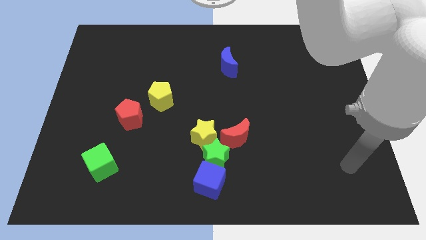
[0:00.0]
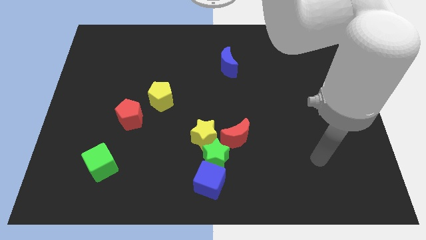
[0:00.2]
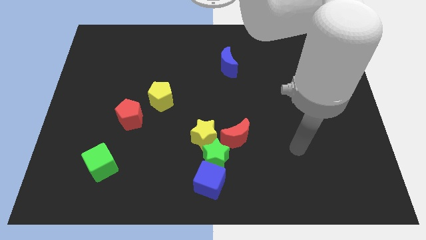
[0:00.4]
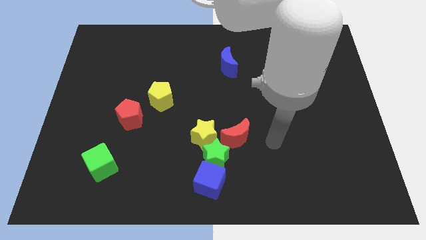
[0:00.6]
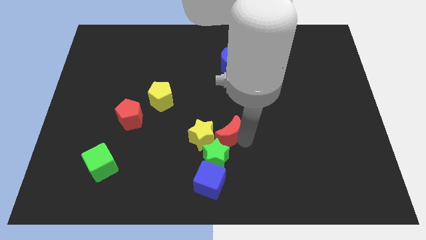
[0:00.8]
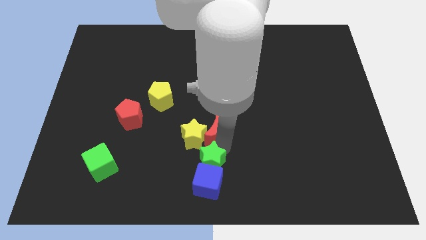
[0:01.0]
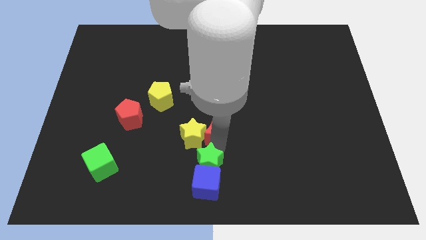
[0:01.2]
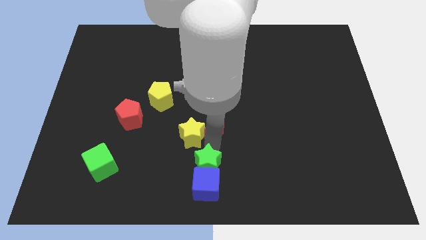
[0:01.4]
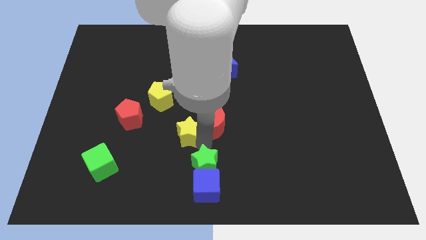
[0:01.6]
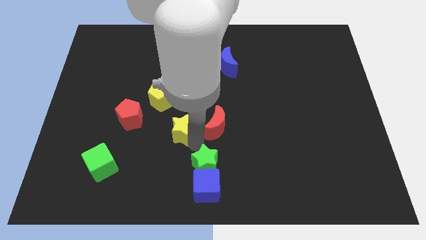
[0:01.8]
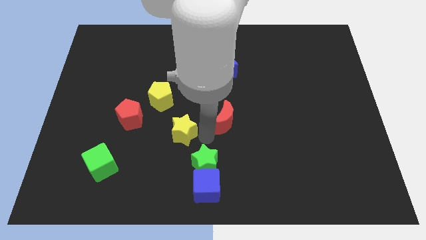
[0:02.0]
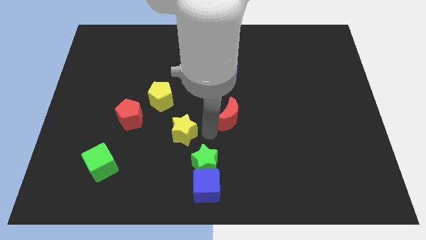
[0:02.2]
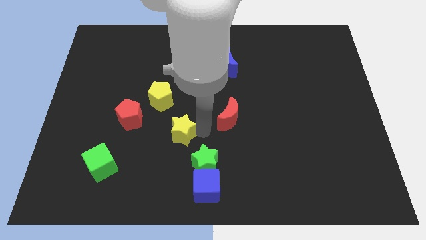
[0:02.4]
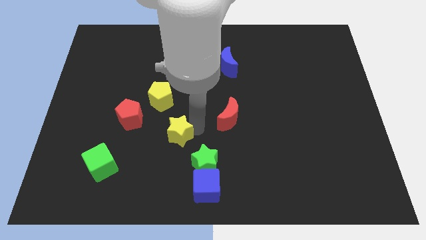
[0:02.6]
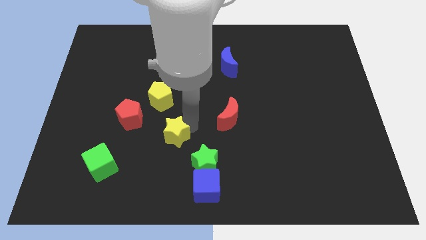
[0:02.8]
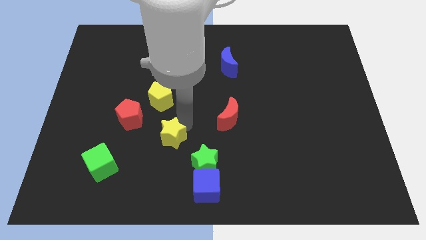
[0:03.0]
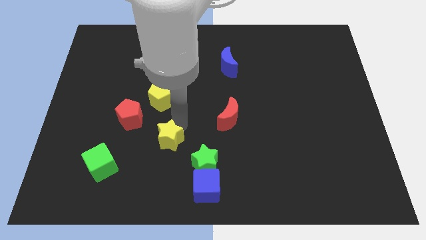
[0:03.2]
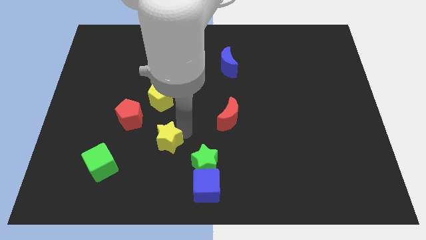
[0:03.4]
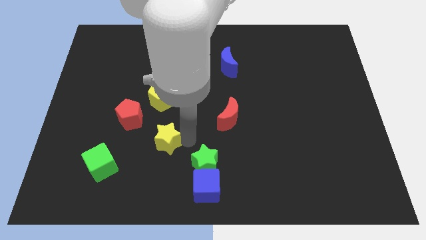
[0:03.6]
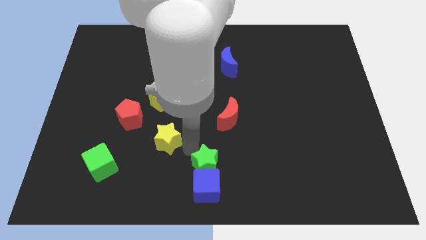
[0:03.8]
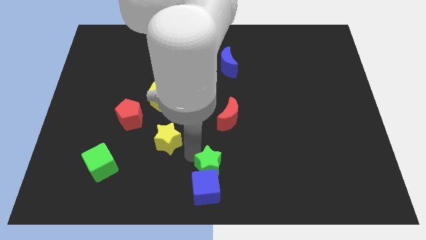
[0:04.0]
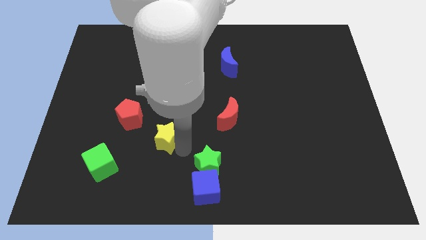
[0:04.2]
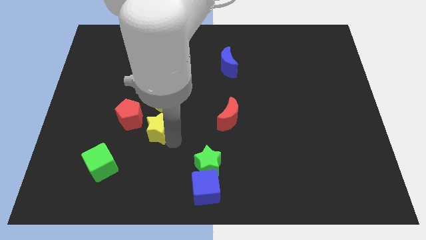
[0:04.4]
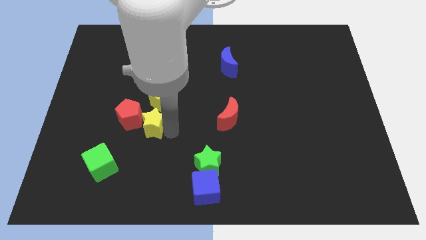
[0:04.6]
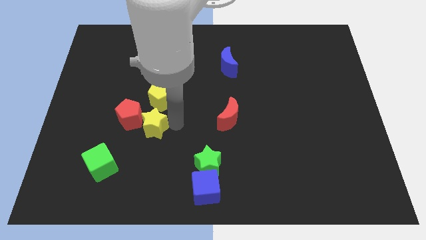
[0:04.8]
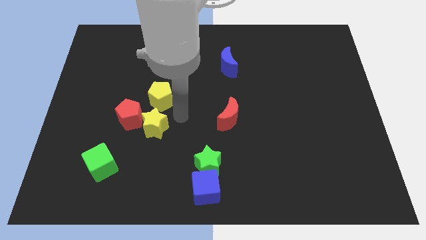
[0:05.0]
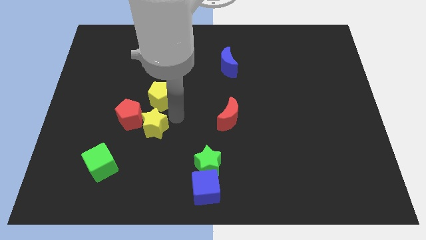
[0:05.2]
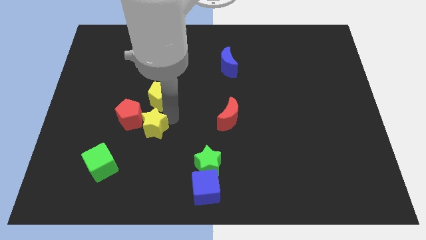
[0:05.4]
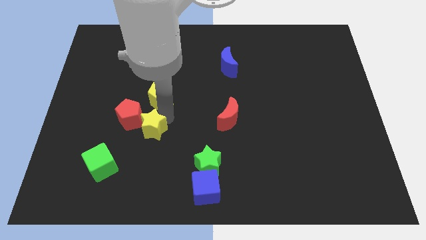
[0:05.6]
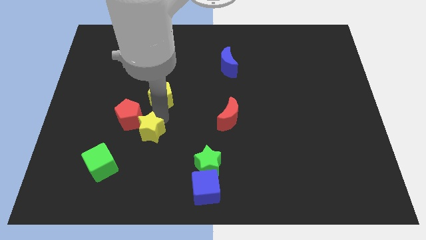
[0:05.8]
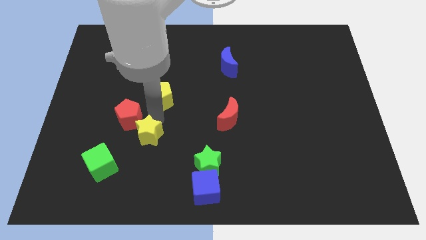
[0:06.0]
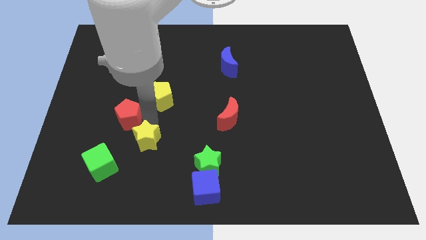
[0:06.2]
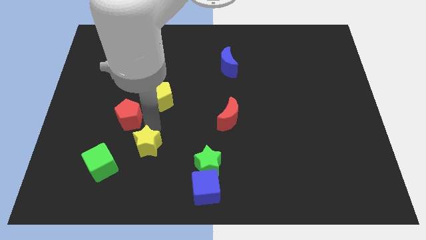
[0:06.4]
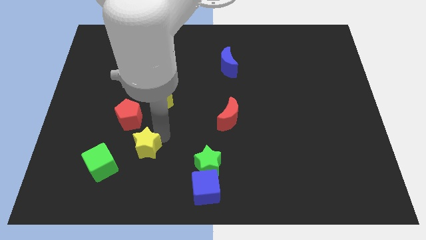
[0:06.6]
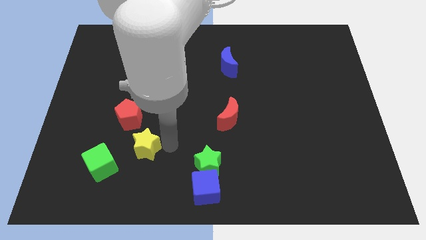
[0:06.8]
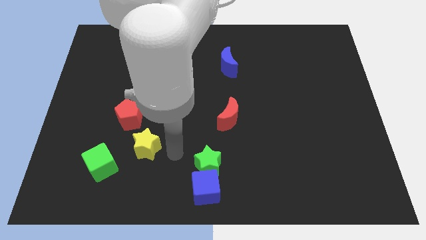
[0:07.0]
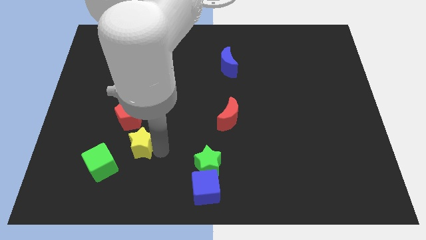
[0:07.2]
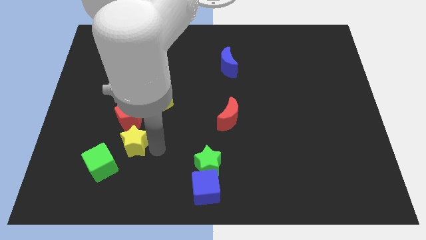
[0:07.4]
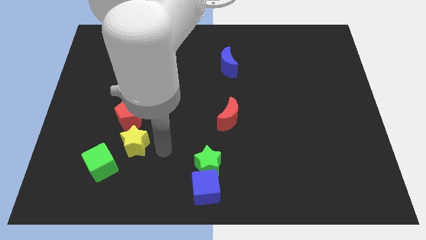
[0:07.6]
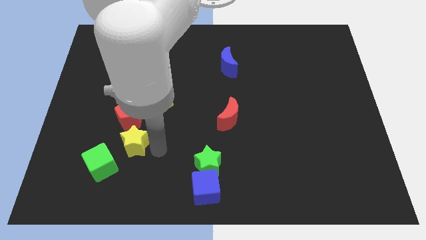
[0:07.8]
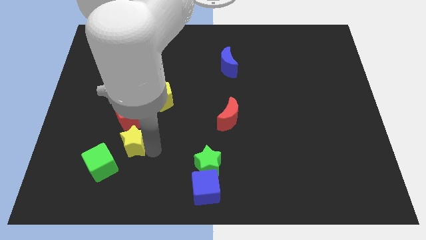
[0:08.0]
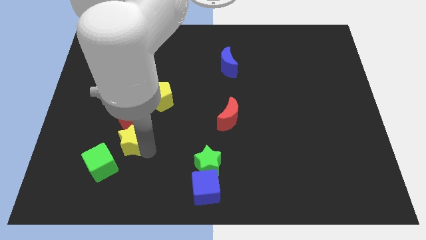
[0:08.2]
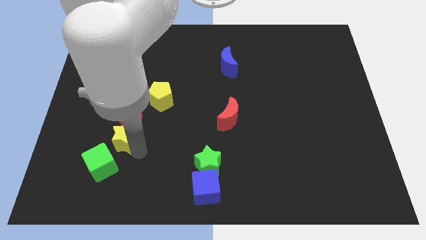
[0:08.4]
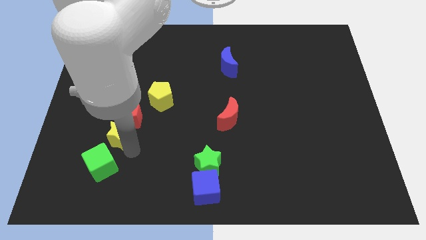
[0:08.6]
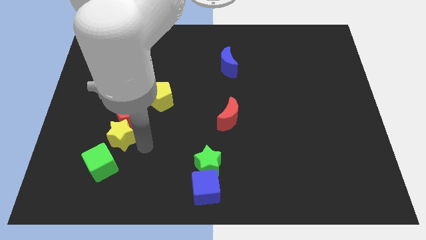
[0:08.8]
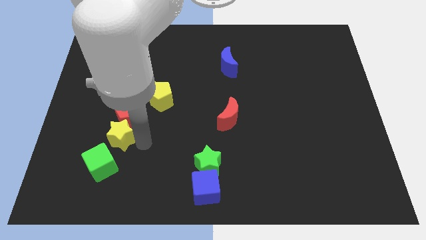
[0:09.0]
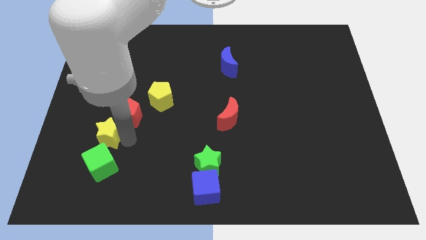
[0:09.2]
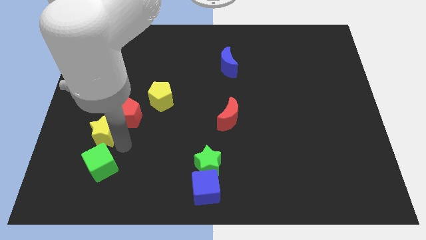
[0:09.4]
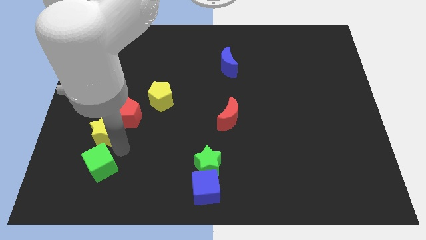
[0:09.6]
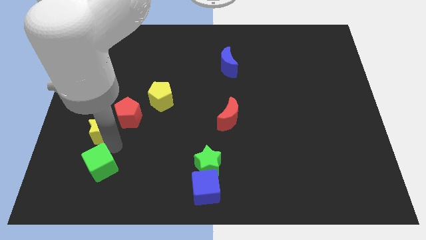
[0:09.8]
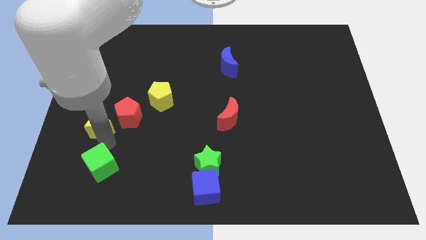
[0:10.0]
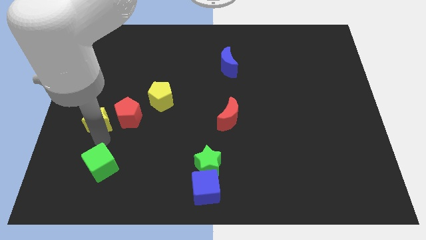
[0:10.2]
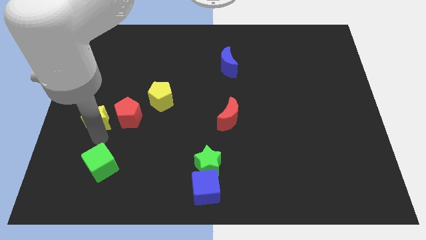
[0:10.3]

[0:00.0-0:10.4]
put the yellow star to the left side of the board

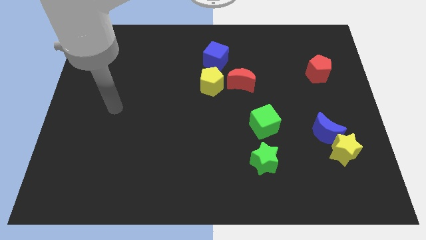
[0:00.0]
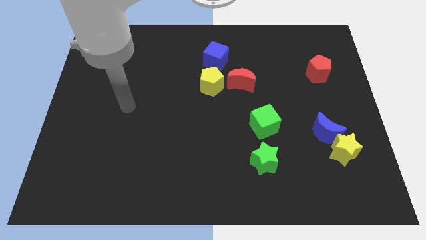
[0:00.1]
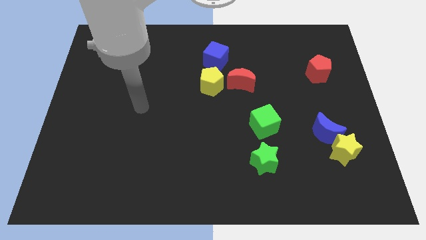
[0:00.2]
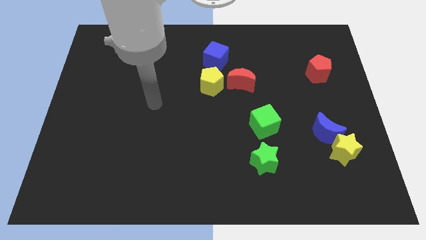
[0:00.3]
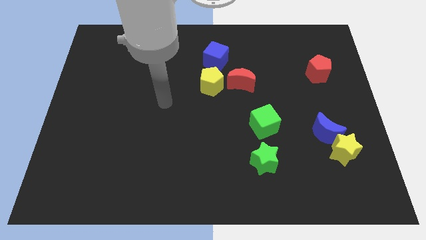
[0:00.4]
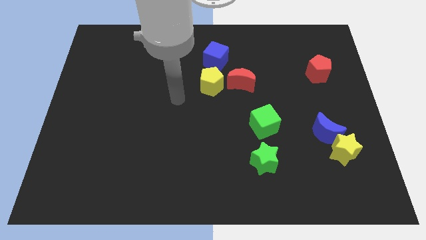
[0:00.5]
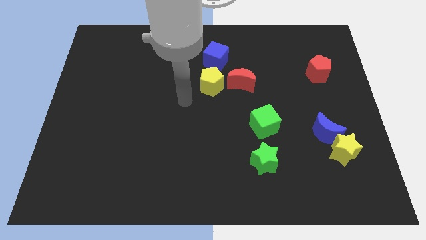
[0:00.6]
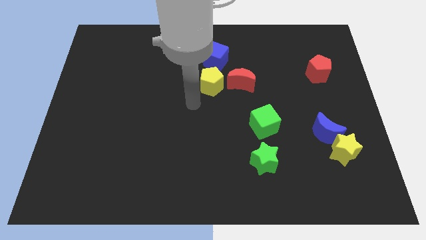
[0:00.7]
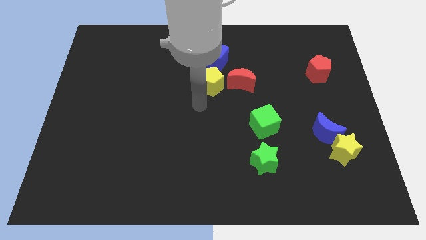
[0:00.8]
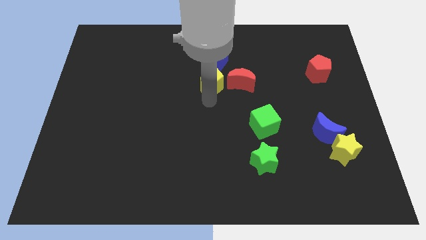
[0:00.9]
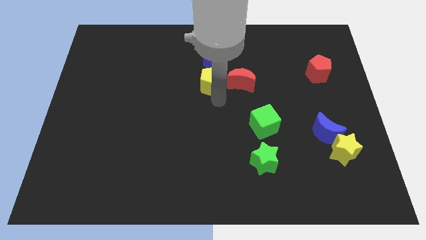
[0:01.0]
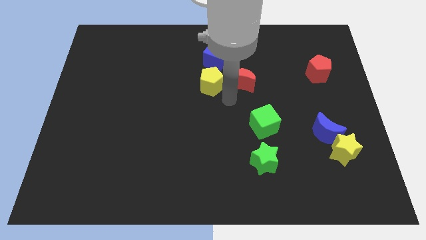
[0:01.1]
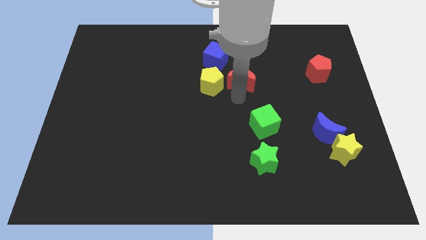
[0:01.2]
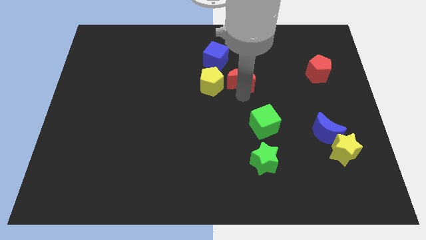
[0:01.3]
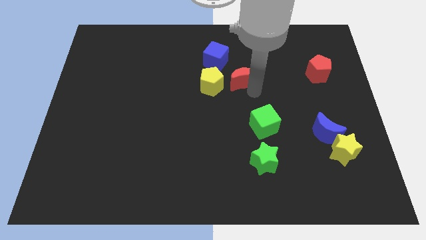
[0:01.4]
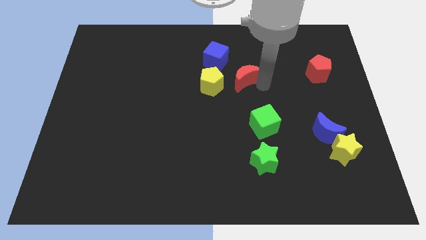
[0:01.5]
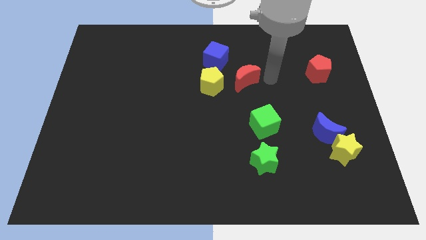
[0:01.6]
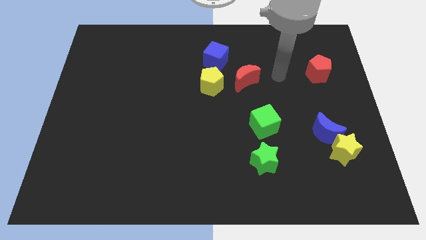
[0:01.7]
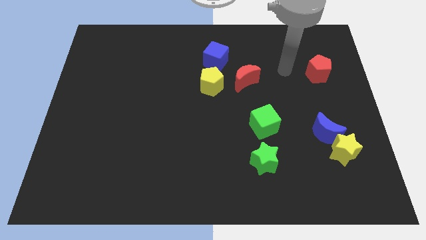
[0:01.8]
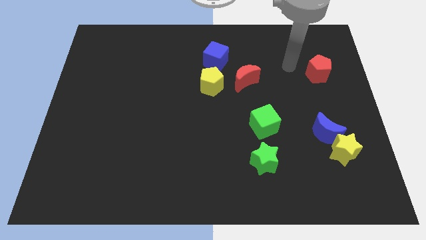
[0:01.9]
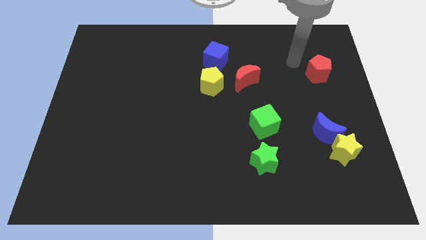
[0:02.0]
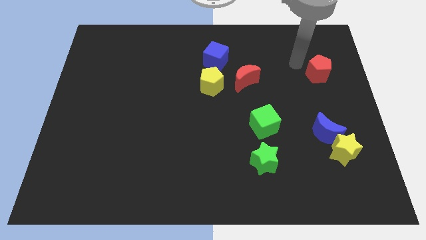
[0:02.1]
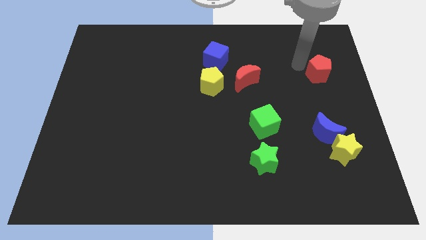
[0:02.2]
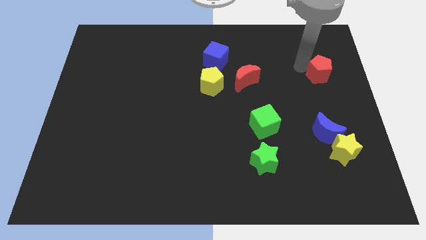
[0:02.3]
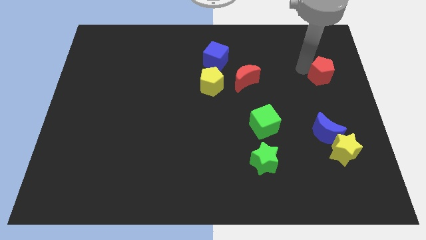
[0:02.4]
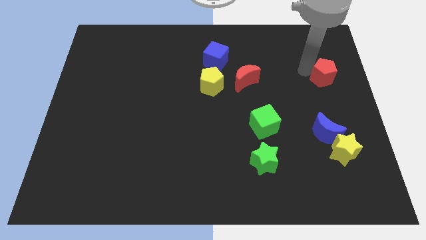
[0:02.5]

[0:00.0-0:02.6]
slide the red pentagon to the right side of the board
